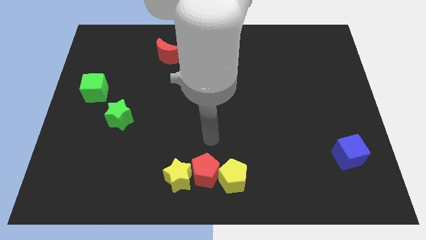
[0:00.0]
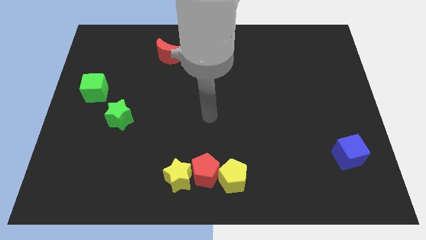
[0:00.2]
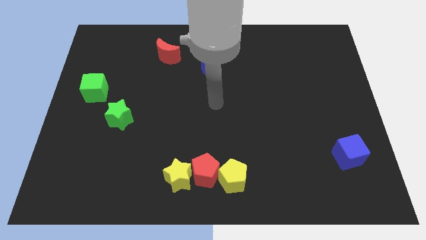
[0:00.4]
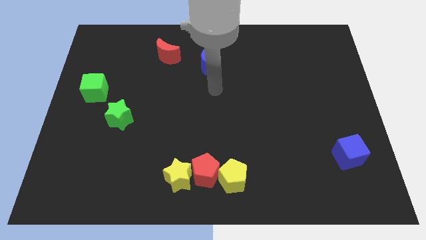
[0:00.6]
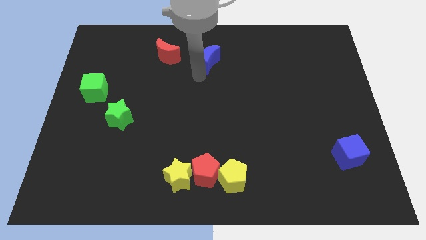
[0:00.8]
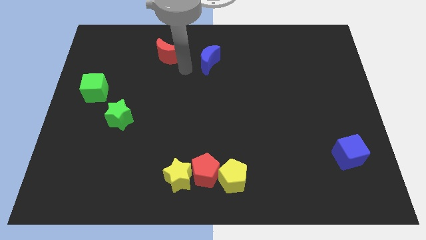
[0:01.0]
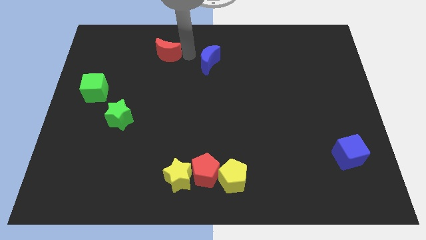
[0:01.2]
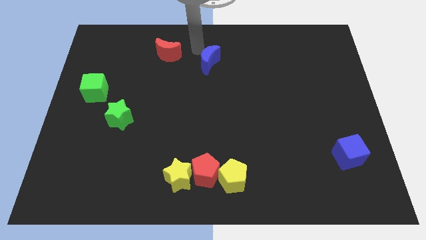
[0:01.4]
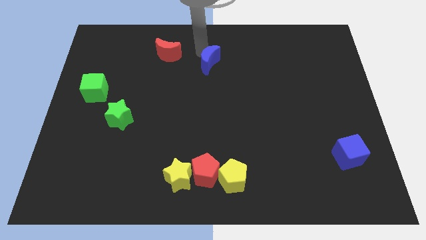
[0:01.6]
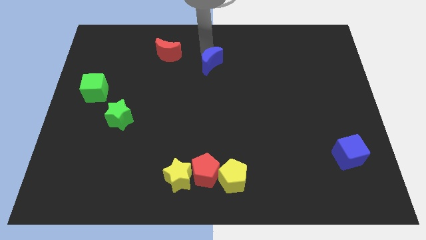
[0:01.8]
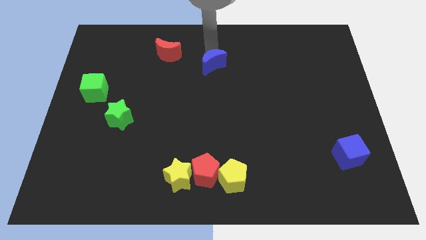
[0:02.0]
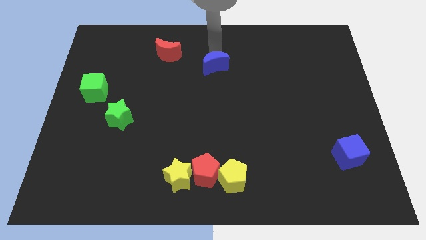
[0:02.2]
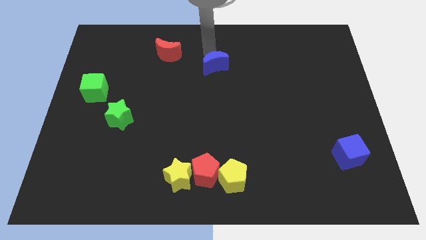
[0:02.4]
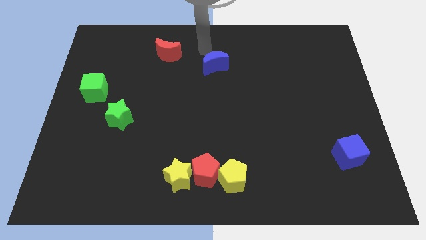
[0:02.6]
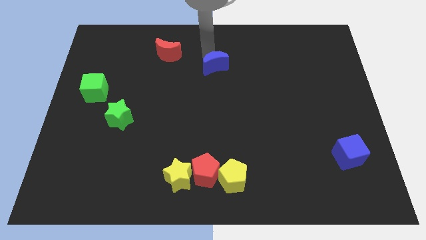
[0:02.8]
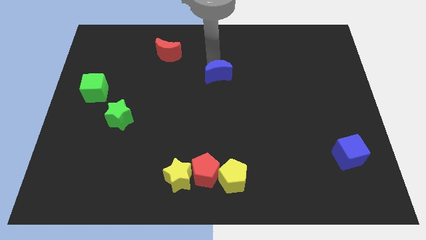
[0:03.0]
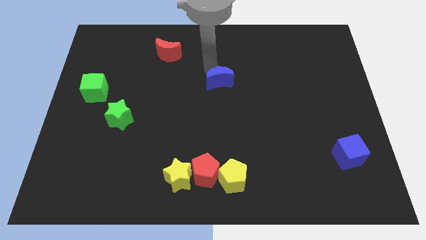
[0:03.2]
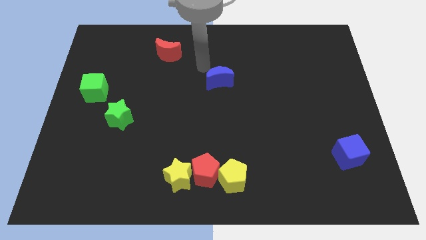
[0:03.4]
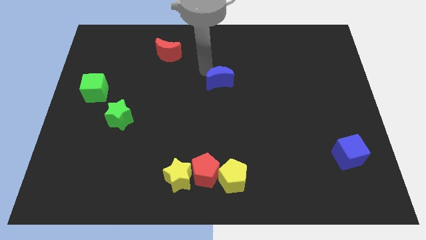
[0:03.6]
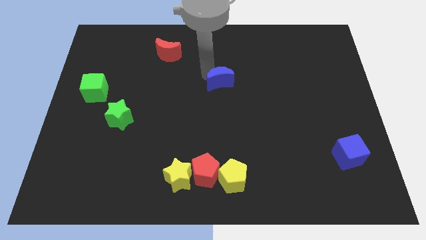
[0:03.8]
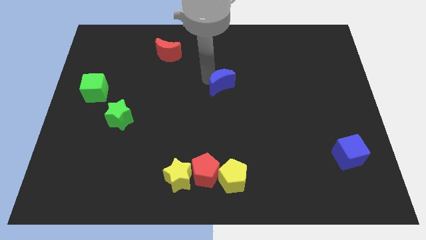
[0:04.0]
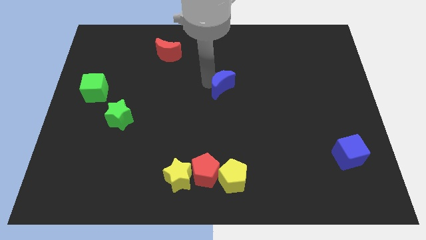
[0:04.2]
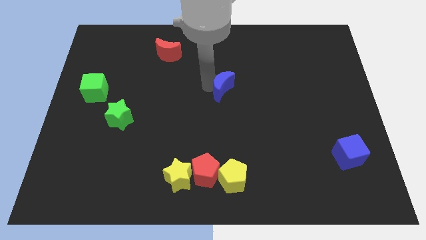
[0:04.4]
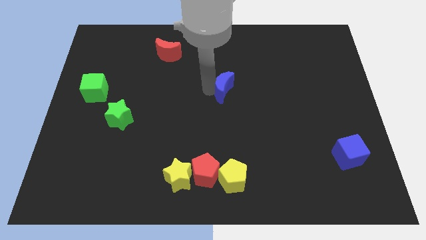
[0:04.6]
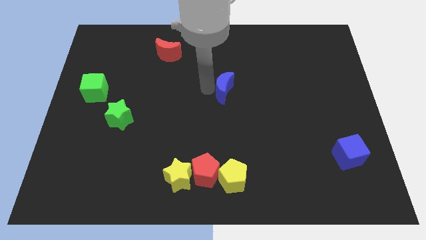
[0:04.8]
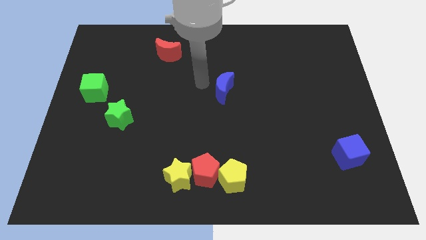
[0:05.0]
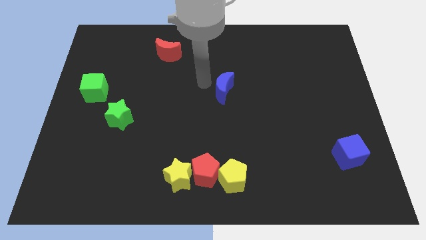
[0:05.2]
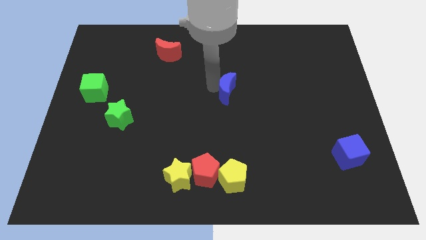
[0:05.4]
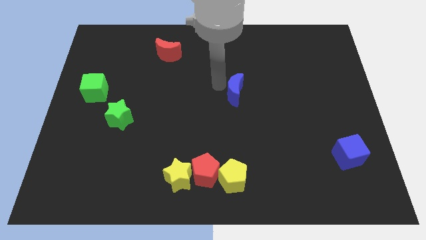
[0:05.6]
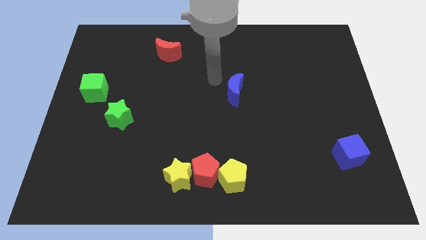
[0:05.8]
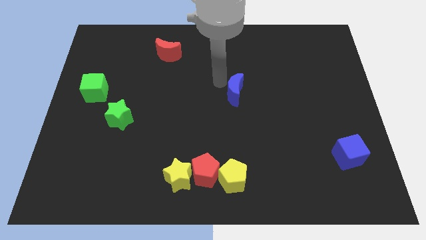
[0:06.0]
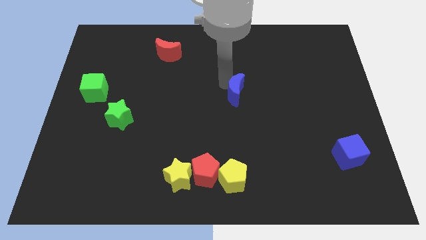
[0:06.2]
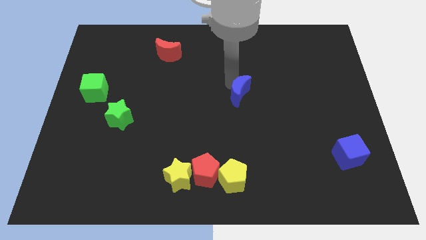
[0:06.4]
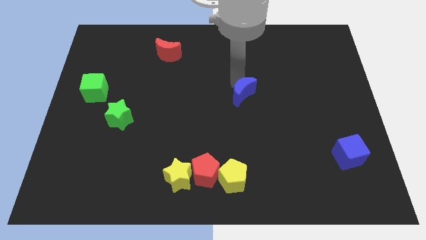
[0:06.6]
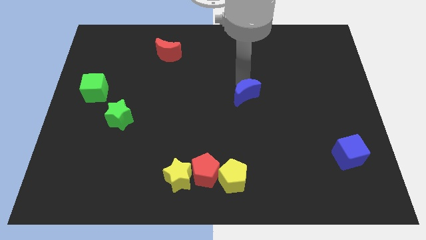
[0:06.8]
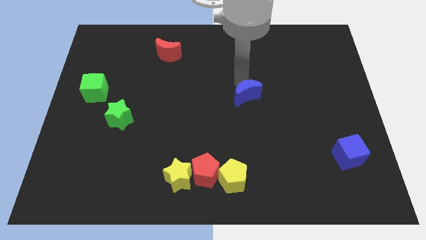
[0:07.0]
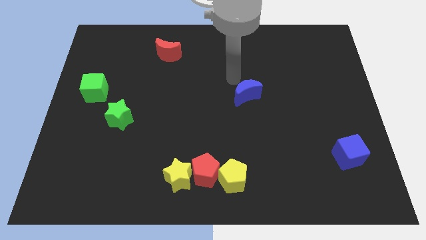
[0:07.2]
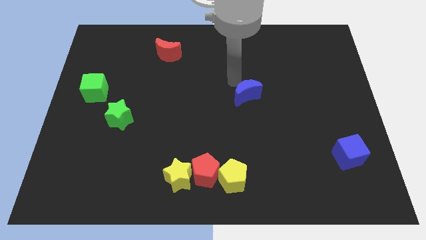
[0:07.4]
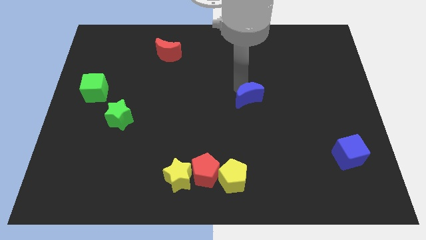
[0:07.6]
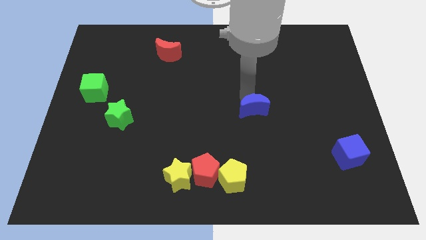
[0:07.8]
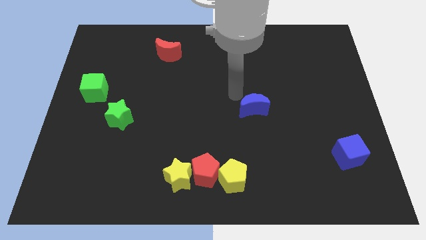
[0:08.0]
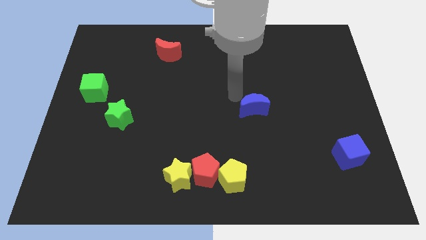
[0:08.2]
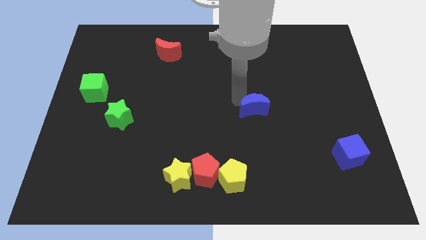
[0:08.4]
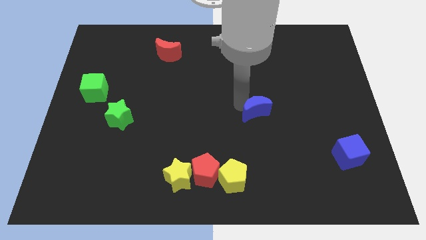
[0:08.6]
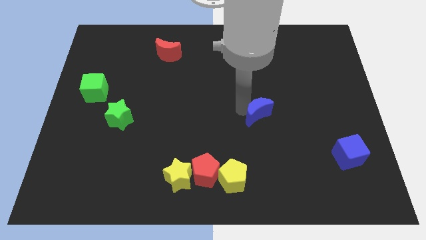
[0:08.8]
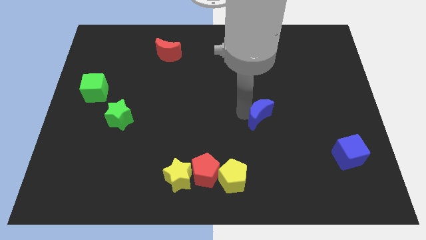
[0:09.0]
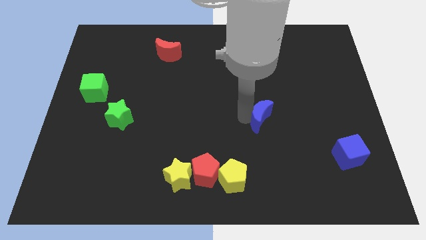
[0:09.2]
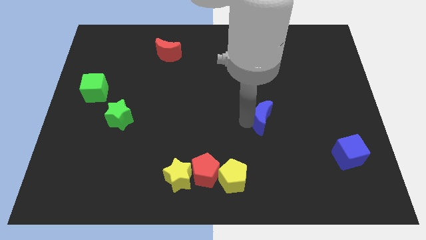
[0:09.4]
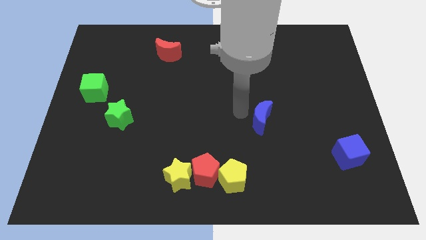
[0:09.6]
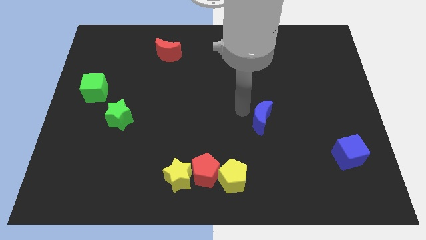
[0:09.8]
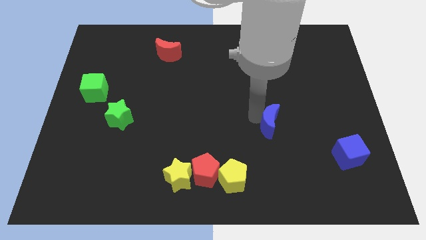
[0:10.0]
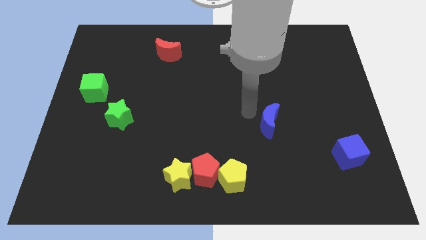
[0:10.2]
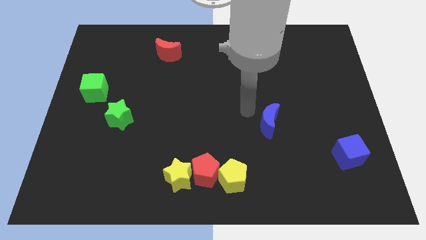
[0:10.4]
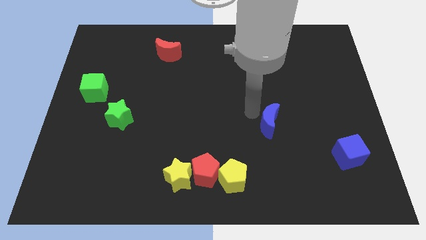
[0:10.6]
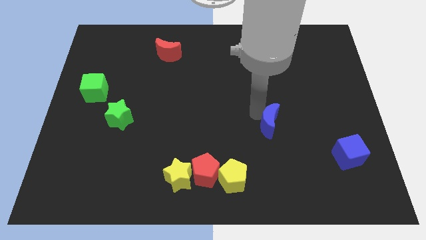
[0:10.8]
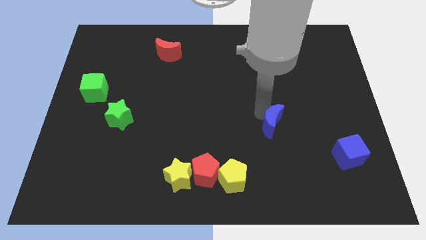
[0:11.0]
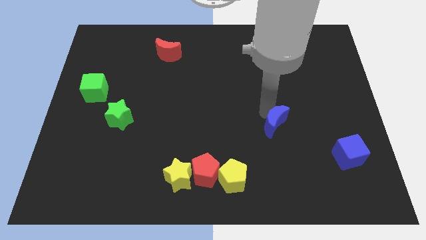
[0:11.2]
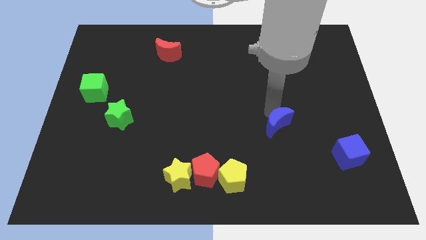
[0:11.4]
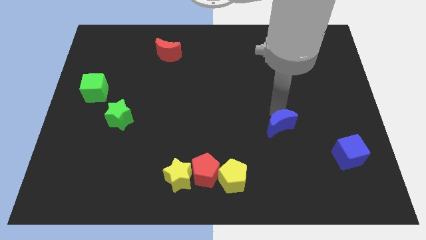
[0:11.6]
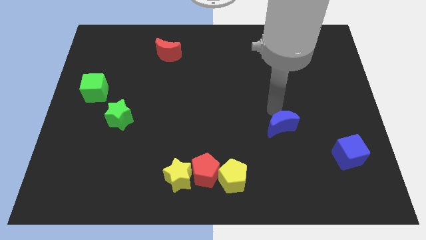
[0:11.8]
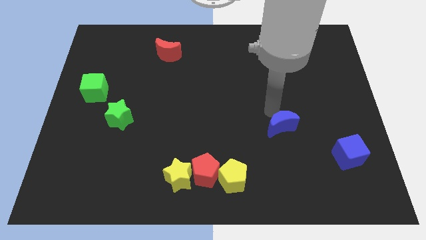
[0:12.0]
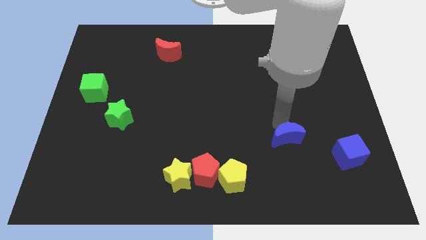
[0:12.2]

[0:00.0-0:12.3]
push the blue moon just left of the blue cube

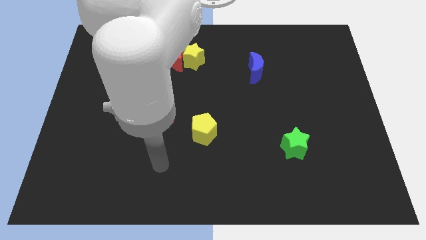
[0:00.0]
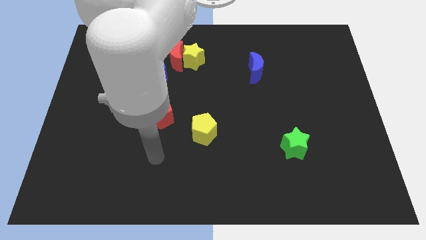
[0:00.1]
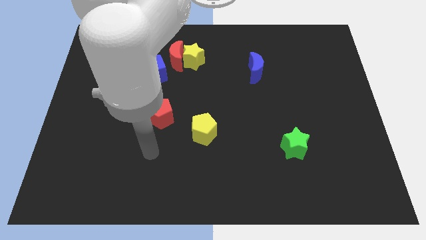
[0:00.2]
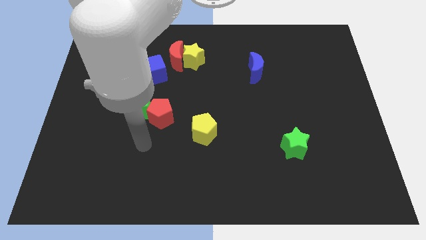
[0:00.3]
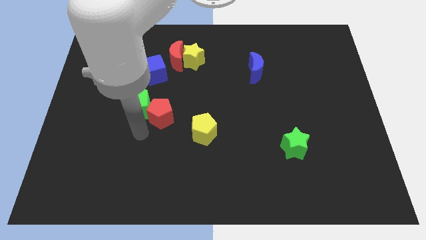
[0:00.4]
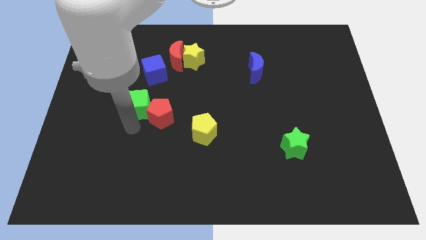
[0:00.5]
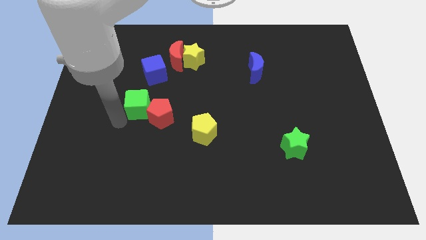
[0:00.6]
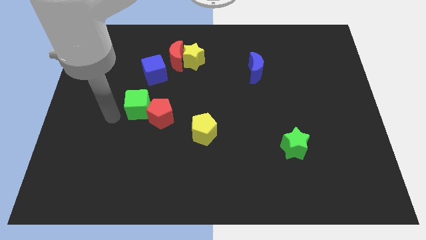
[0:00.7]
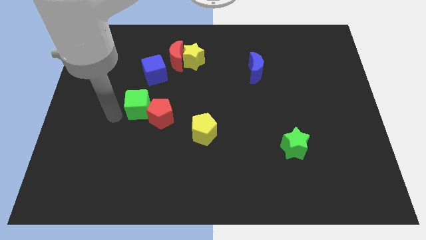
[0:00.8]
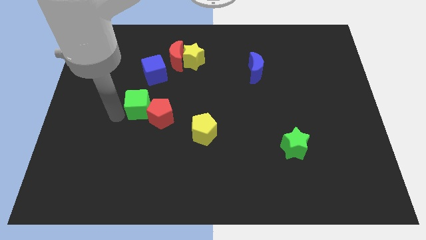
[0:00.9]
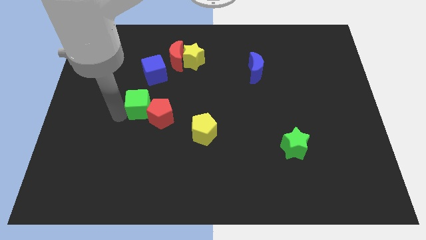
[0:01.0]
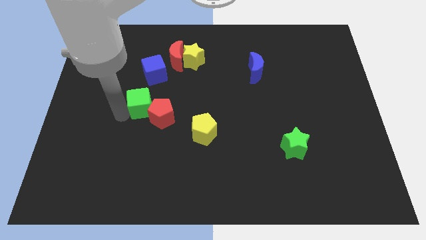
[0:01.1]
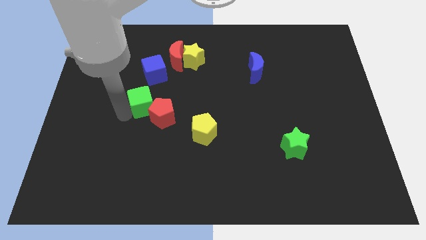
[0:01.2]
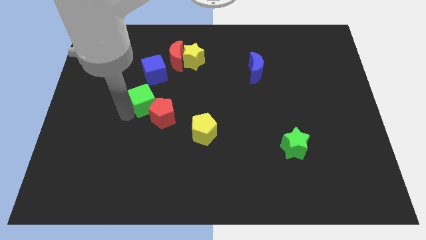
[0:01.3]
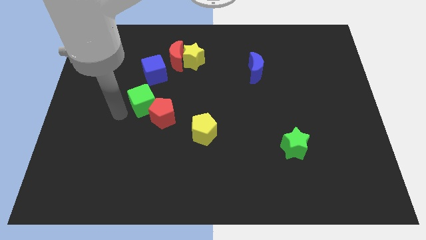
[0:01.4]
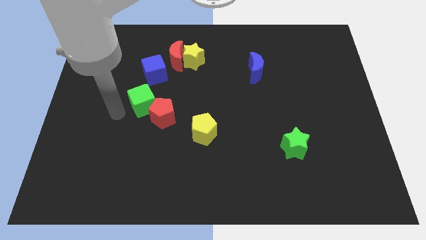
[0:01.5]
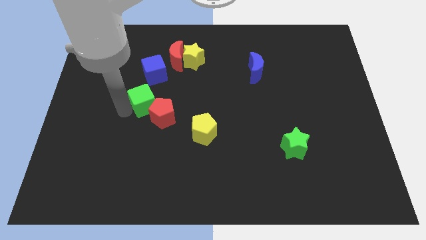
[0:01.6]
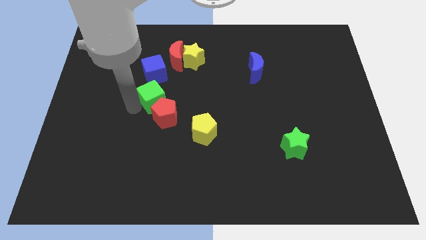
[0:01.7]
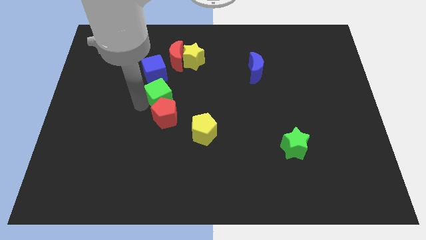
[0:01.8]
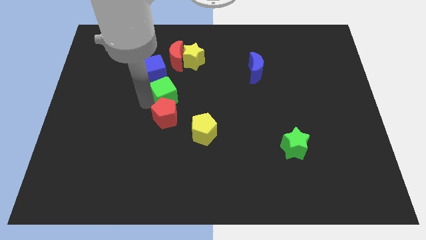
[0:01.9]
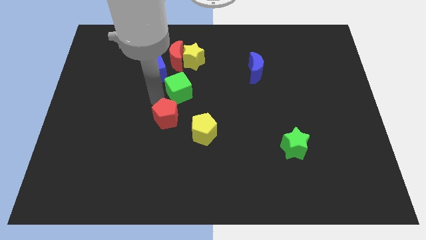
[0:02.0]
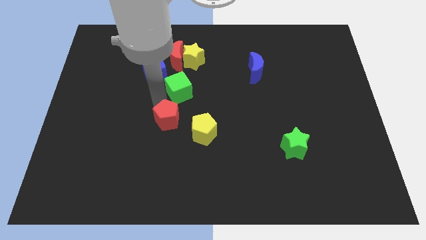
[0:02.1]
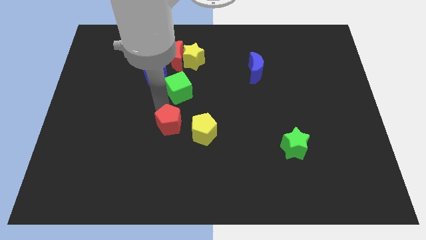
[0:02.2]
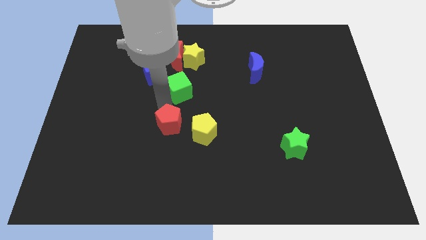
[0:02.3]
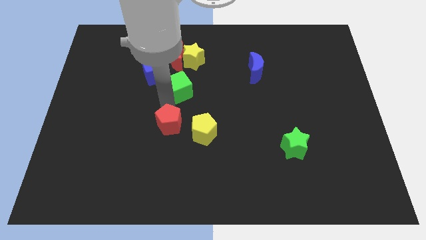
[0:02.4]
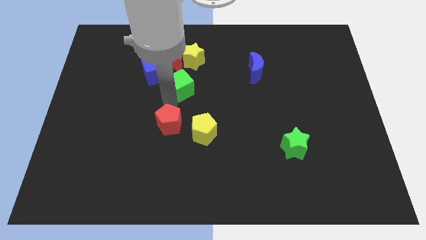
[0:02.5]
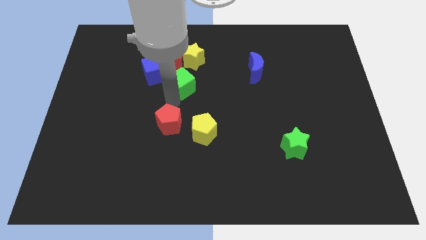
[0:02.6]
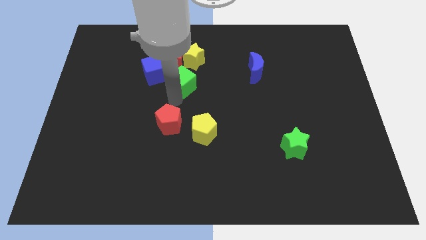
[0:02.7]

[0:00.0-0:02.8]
push the green cube to the bottom right of the red moon
